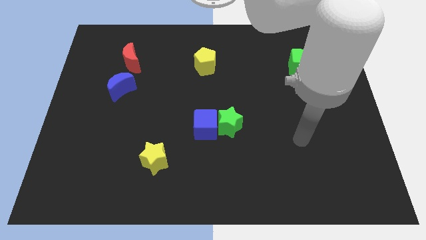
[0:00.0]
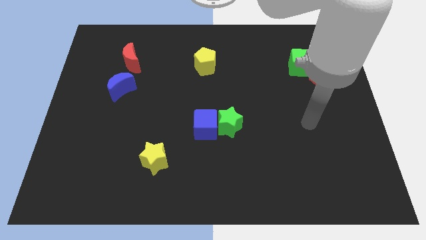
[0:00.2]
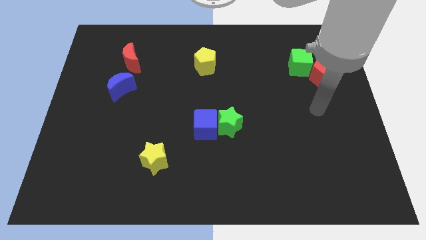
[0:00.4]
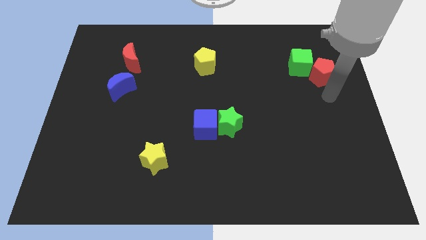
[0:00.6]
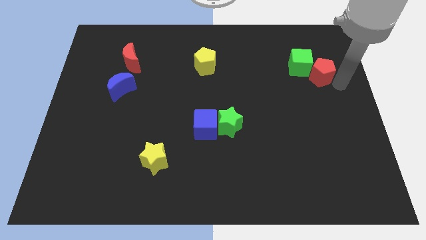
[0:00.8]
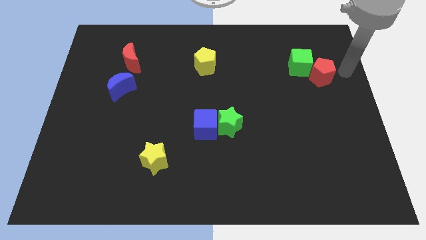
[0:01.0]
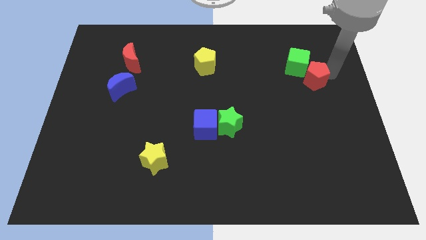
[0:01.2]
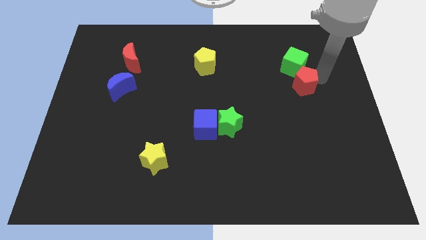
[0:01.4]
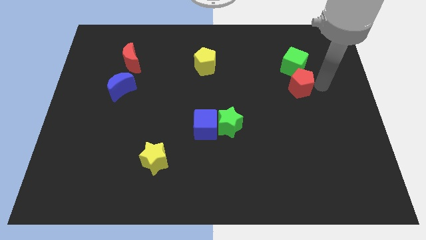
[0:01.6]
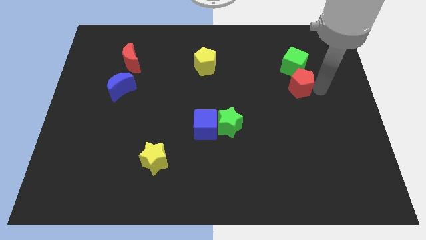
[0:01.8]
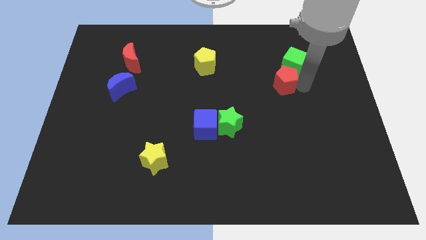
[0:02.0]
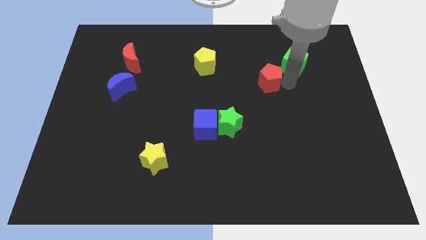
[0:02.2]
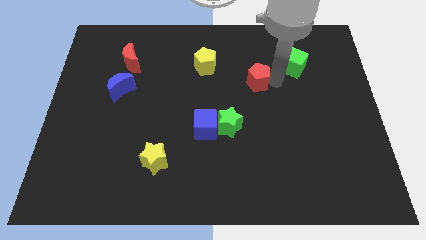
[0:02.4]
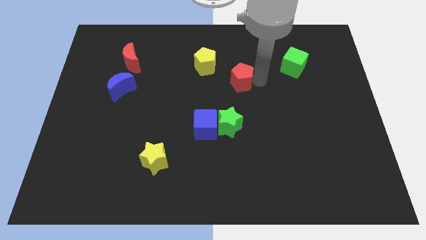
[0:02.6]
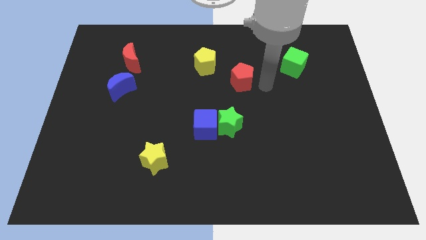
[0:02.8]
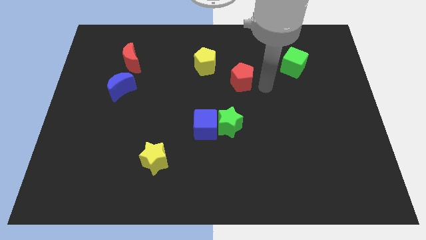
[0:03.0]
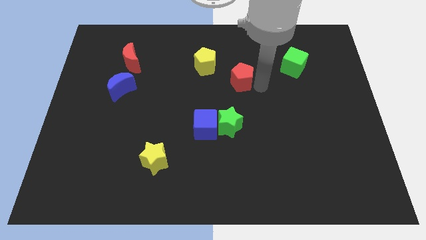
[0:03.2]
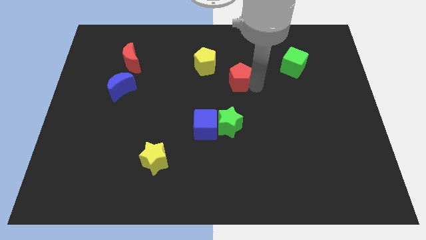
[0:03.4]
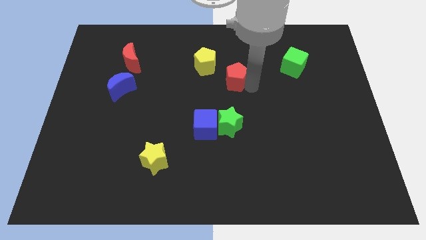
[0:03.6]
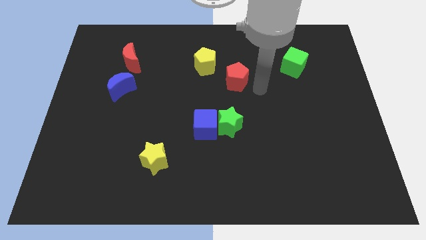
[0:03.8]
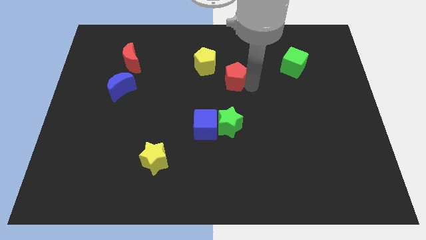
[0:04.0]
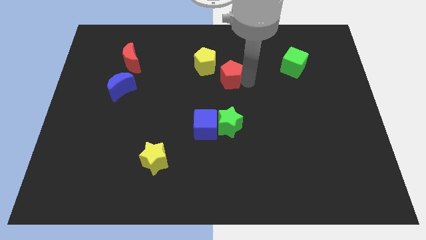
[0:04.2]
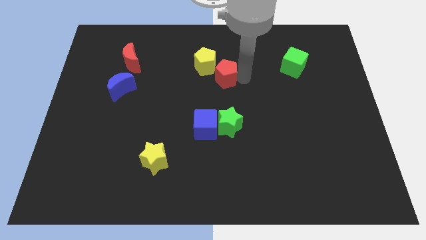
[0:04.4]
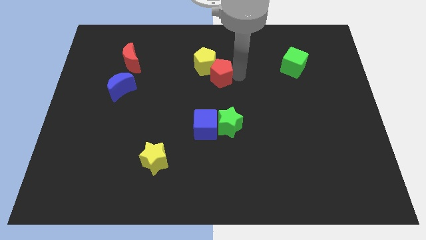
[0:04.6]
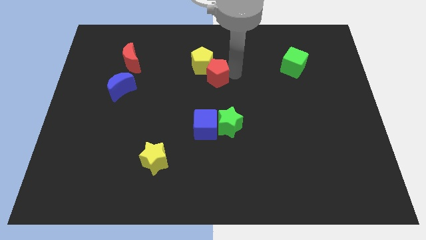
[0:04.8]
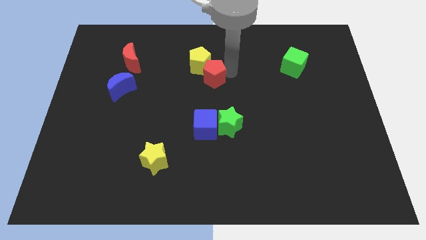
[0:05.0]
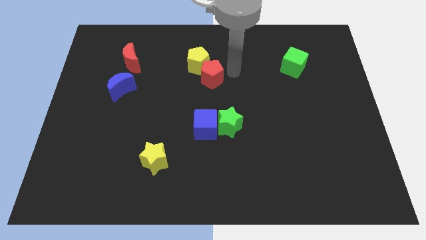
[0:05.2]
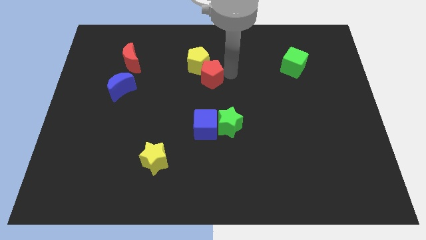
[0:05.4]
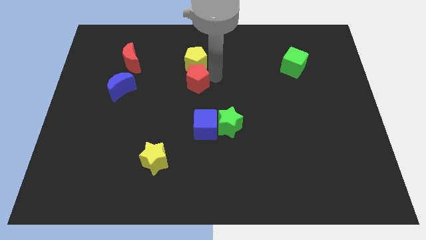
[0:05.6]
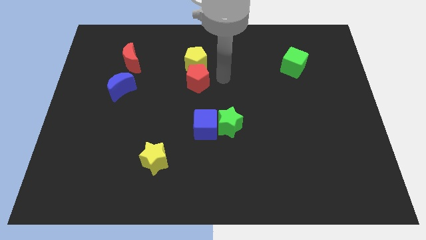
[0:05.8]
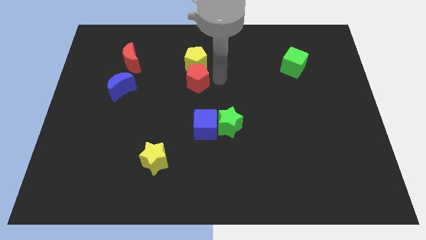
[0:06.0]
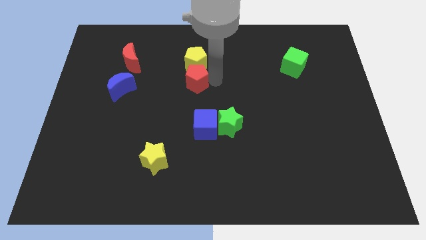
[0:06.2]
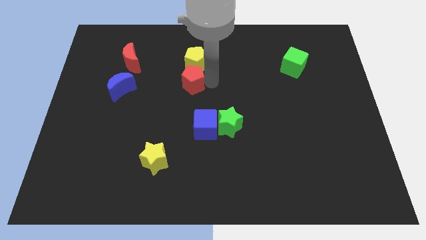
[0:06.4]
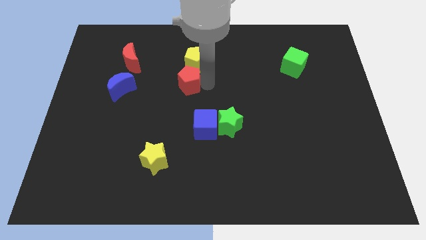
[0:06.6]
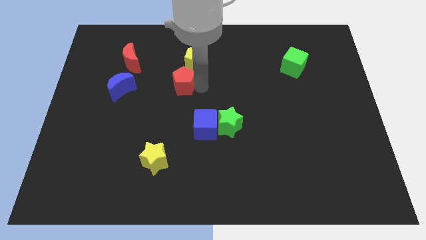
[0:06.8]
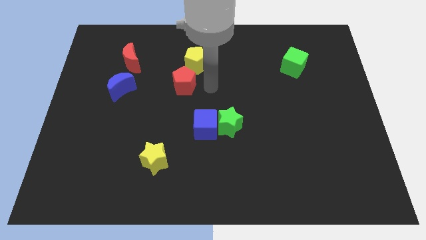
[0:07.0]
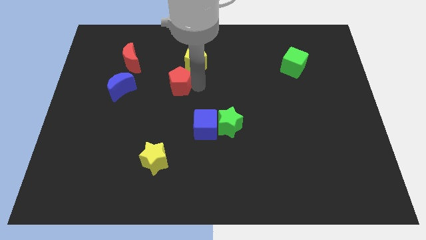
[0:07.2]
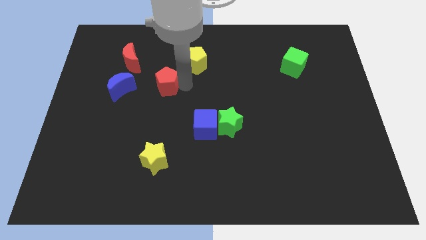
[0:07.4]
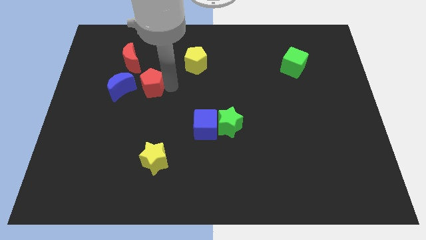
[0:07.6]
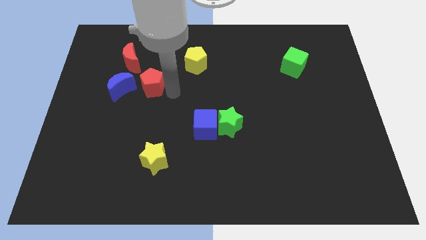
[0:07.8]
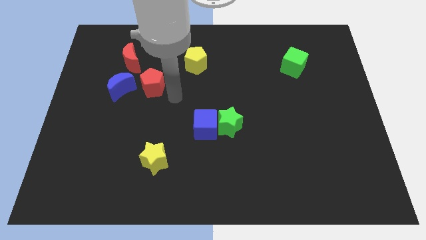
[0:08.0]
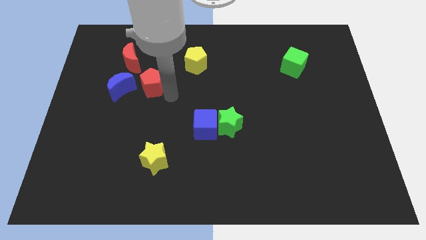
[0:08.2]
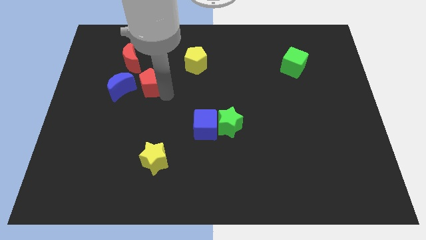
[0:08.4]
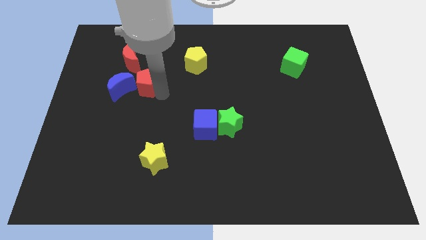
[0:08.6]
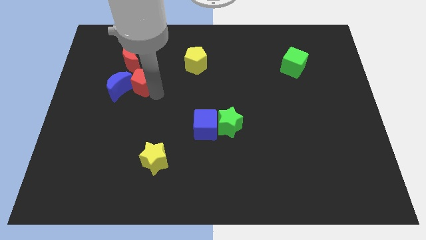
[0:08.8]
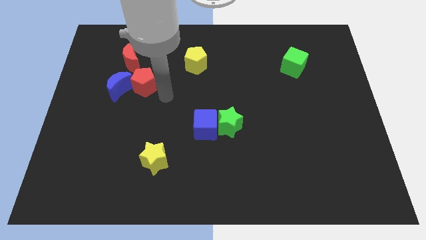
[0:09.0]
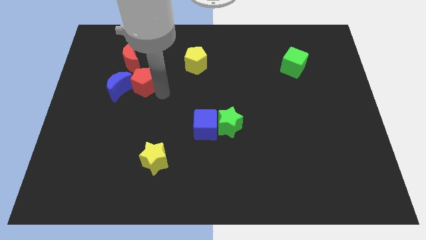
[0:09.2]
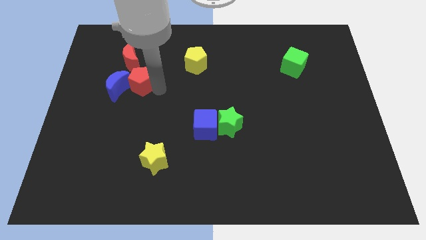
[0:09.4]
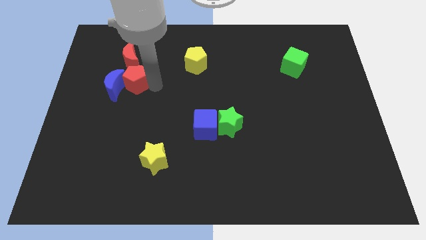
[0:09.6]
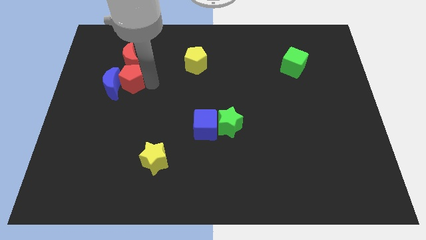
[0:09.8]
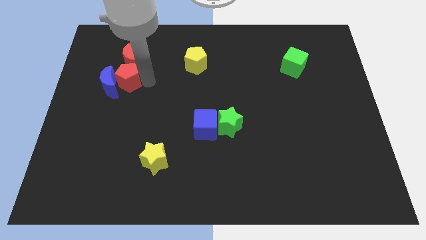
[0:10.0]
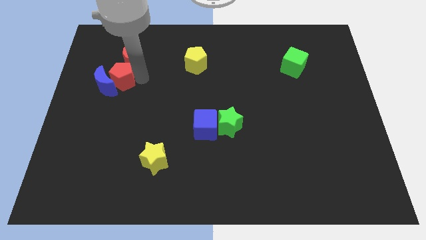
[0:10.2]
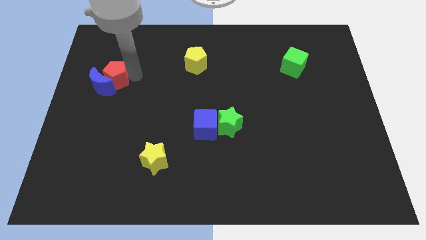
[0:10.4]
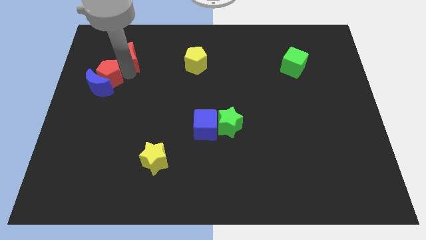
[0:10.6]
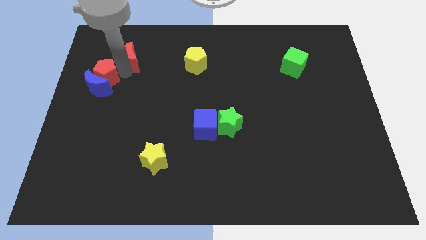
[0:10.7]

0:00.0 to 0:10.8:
move the red pentagon to the top left of the blue moon

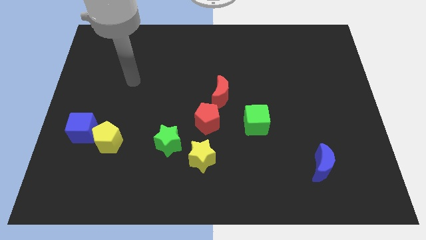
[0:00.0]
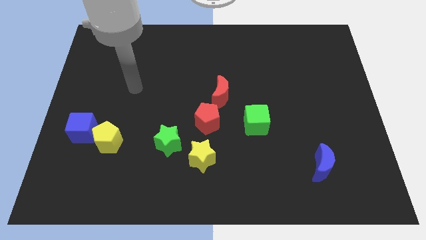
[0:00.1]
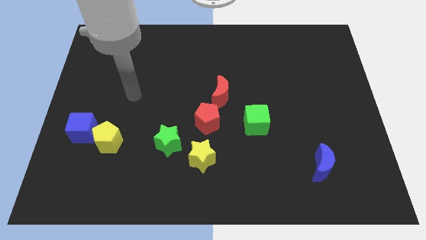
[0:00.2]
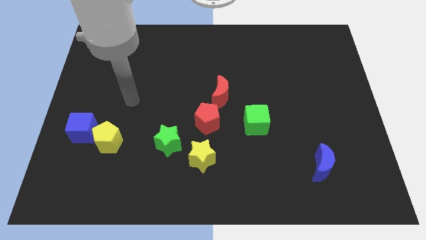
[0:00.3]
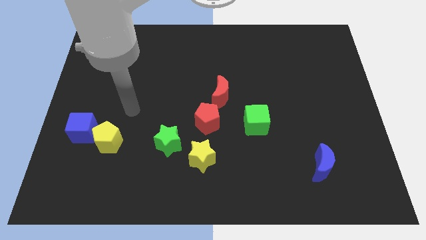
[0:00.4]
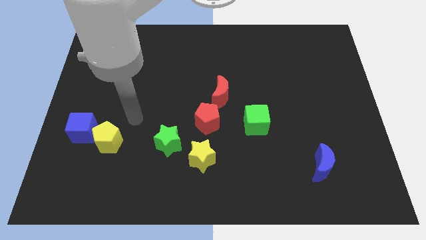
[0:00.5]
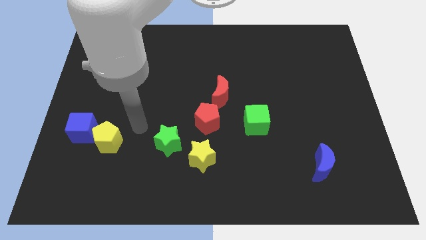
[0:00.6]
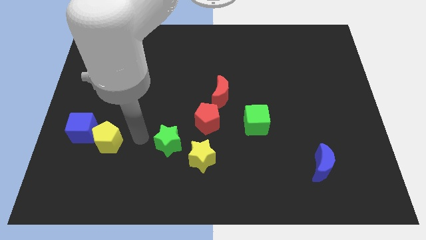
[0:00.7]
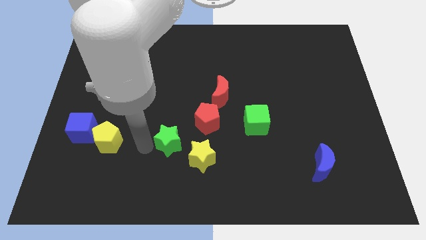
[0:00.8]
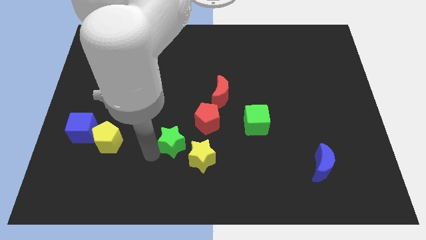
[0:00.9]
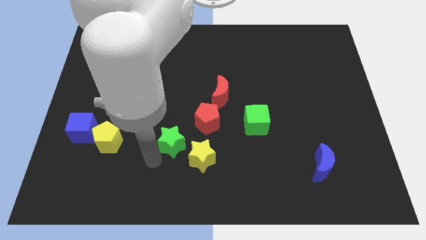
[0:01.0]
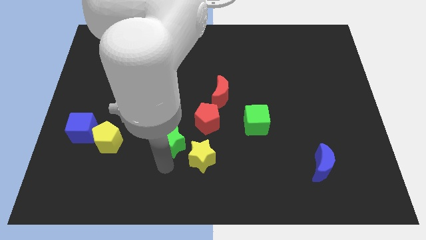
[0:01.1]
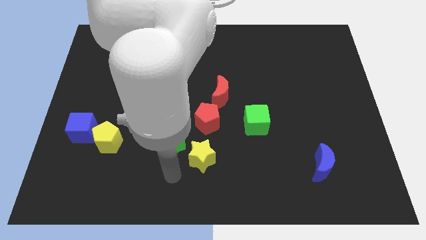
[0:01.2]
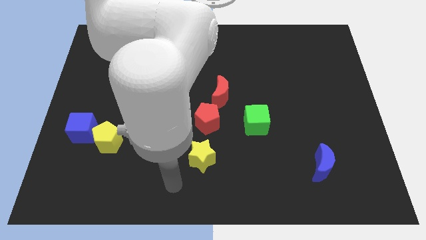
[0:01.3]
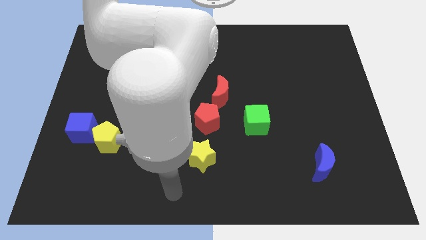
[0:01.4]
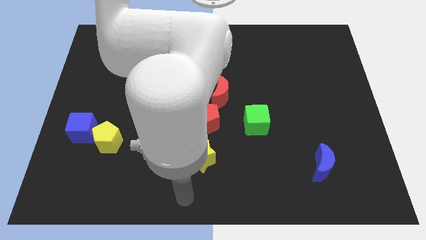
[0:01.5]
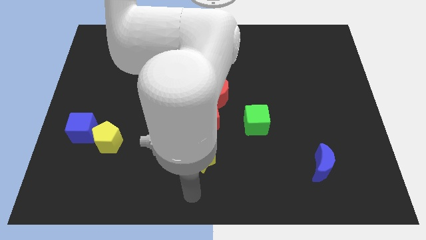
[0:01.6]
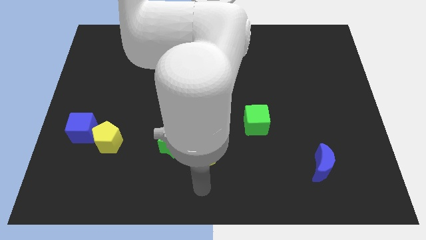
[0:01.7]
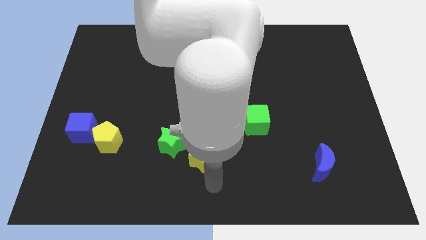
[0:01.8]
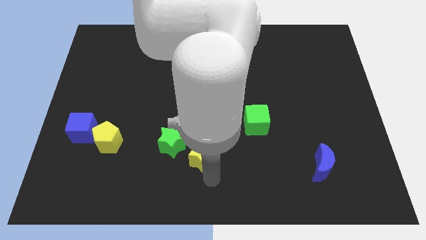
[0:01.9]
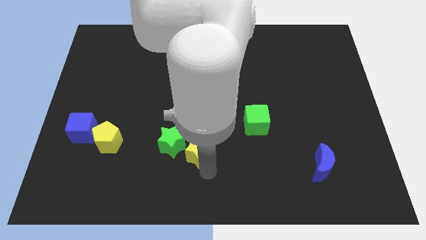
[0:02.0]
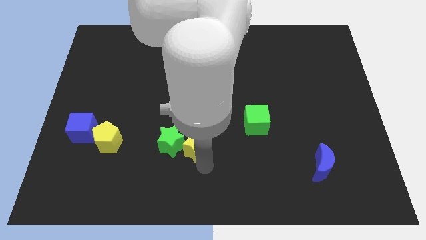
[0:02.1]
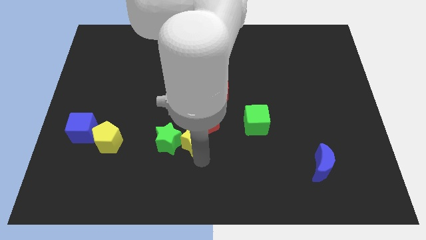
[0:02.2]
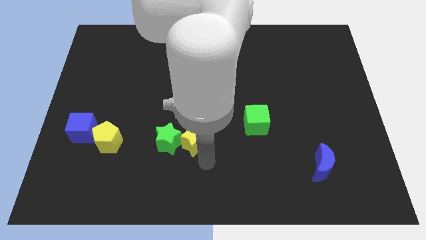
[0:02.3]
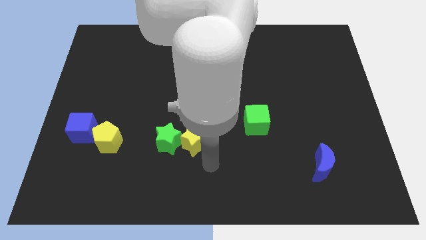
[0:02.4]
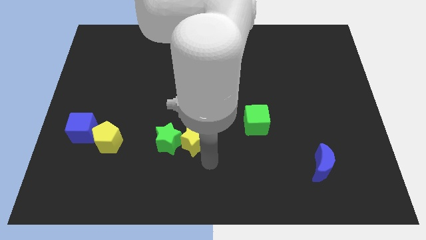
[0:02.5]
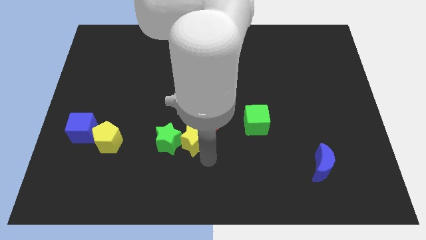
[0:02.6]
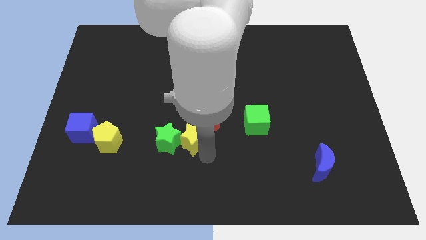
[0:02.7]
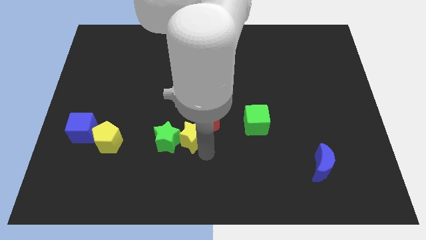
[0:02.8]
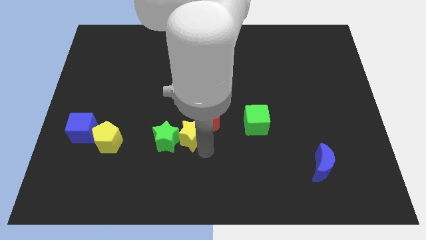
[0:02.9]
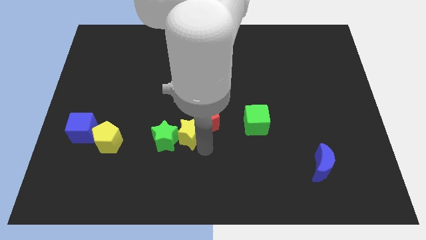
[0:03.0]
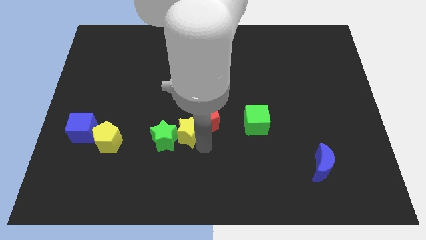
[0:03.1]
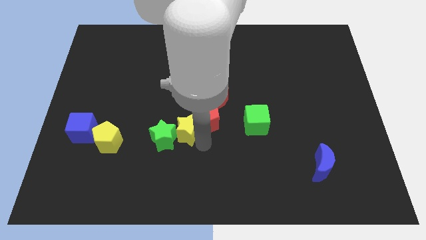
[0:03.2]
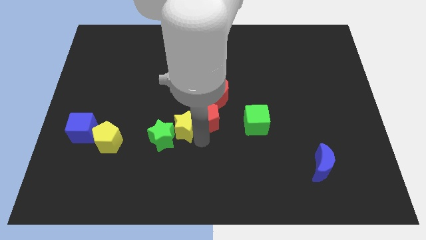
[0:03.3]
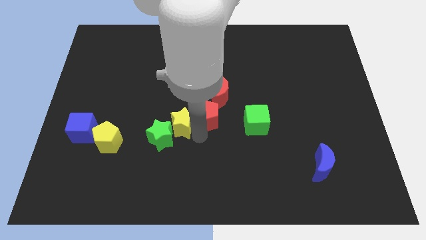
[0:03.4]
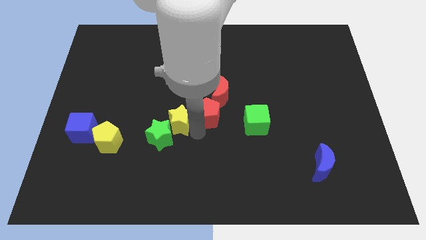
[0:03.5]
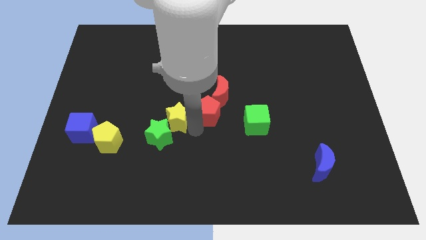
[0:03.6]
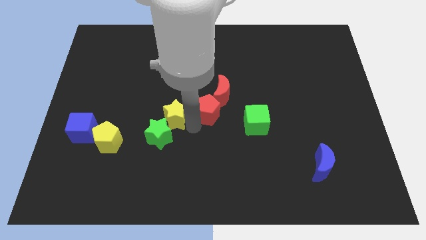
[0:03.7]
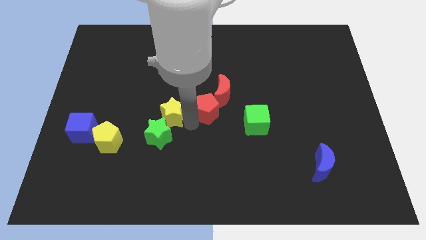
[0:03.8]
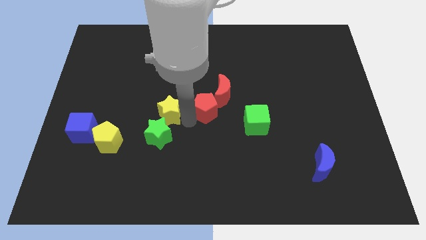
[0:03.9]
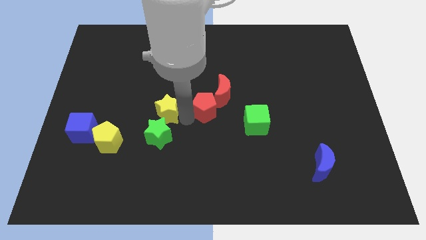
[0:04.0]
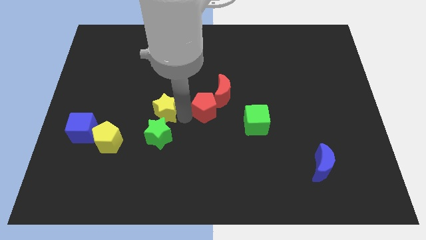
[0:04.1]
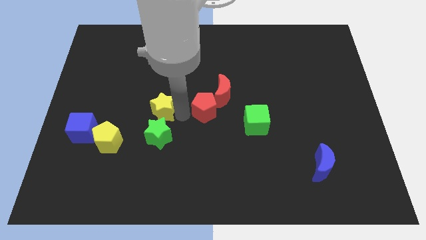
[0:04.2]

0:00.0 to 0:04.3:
slide the yellow star to the top left side of the green star
